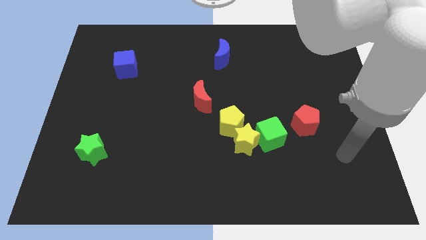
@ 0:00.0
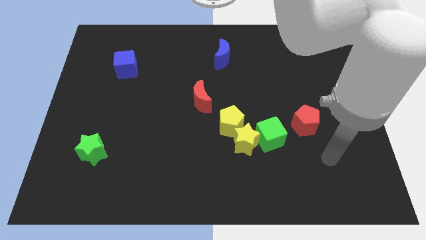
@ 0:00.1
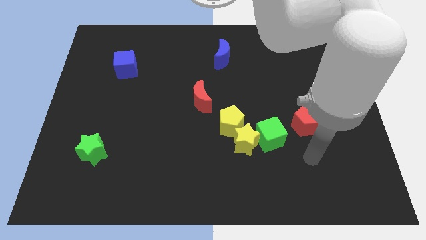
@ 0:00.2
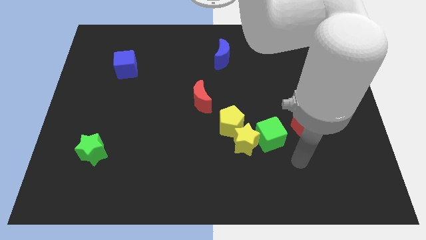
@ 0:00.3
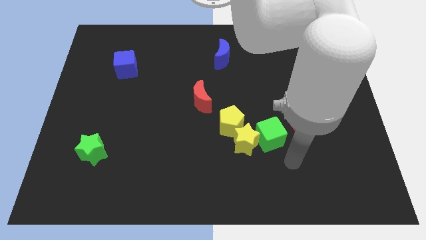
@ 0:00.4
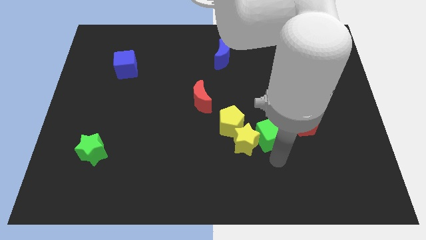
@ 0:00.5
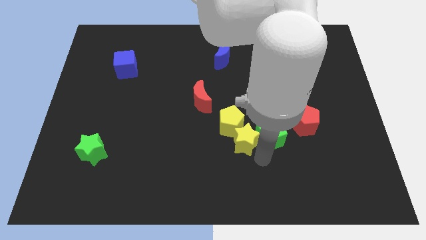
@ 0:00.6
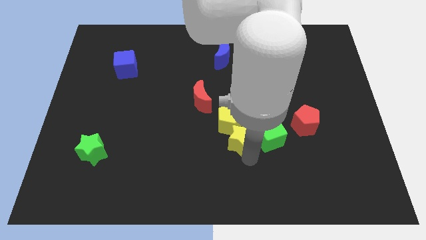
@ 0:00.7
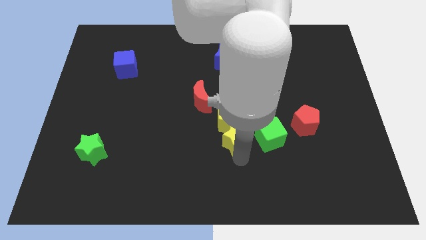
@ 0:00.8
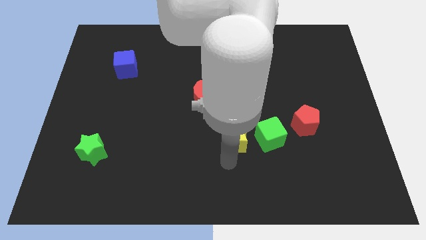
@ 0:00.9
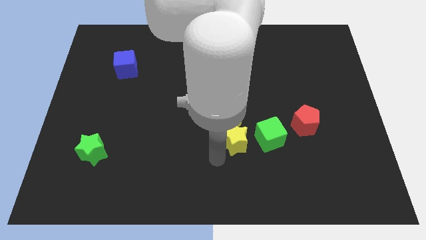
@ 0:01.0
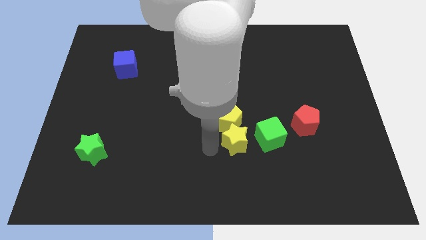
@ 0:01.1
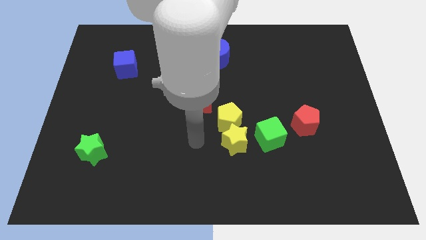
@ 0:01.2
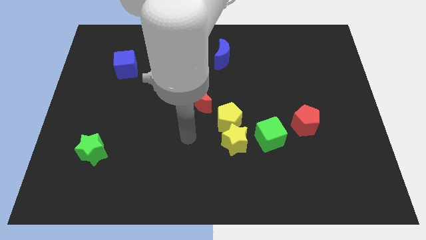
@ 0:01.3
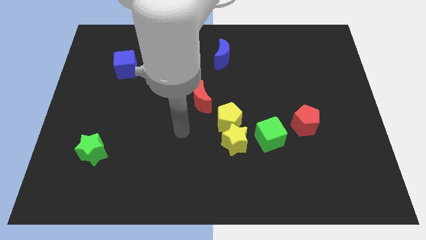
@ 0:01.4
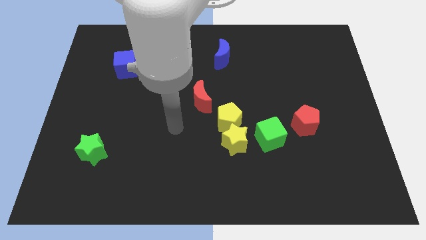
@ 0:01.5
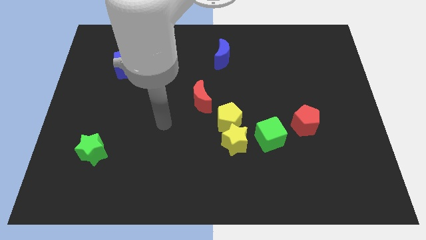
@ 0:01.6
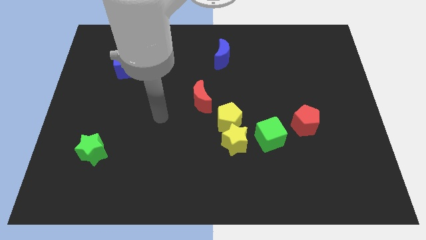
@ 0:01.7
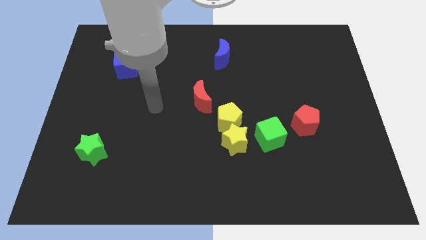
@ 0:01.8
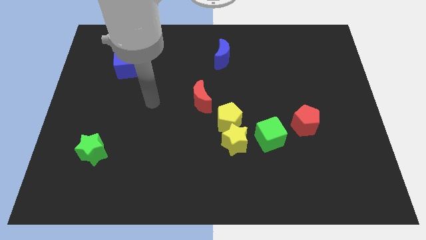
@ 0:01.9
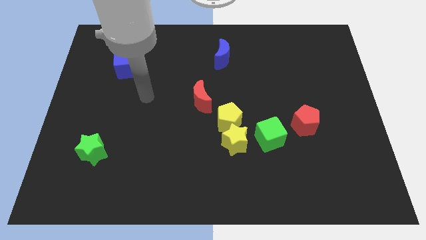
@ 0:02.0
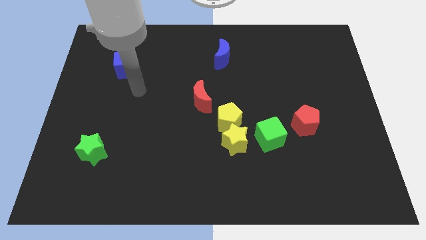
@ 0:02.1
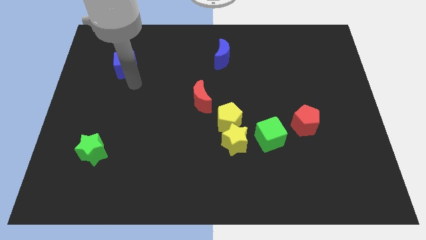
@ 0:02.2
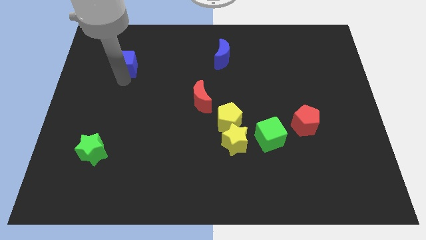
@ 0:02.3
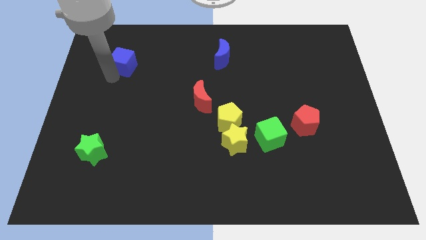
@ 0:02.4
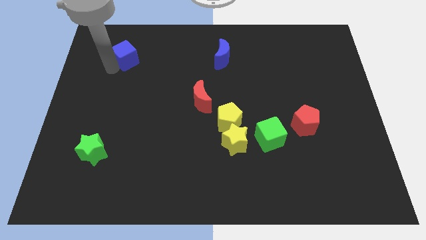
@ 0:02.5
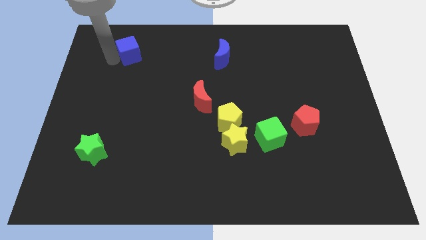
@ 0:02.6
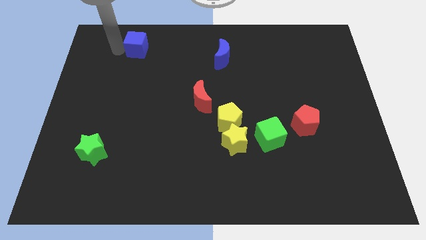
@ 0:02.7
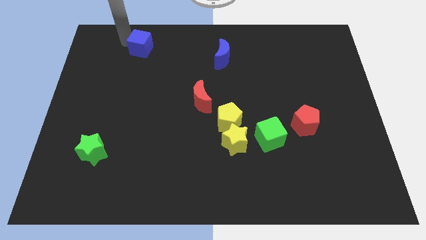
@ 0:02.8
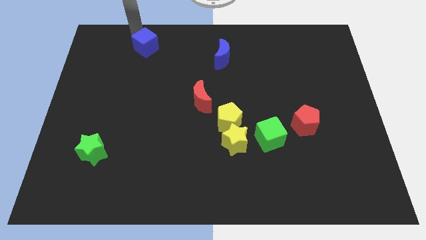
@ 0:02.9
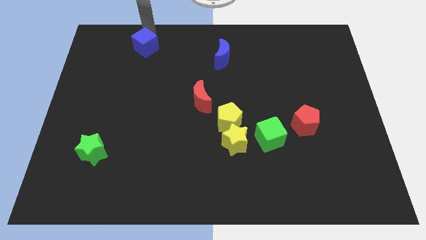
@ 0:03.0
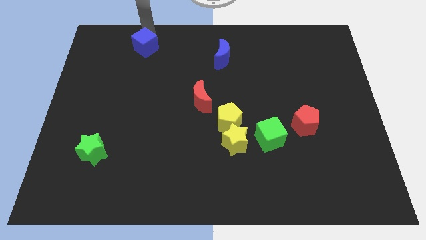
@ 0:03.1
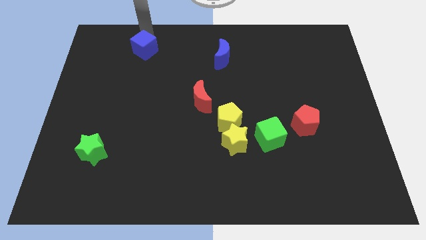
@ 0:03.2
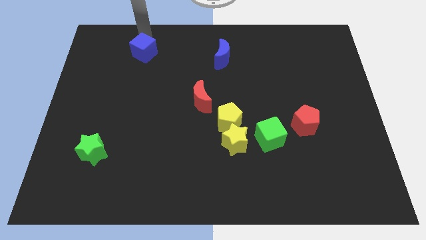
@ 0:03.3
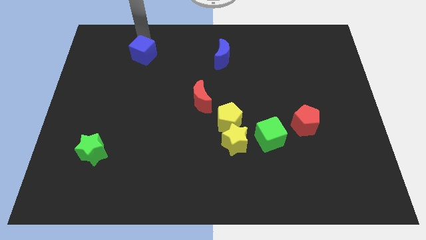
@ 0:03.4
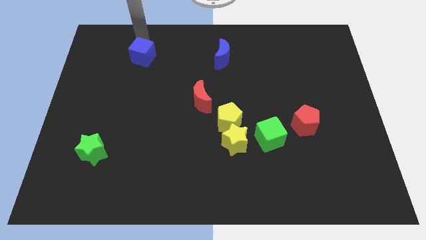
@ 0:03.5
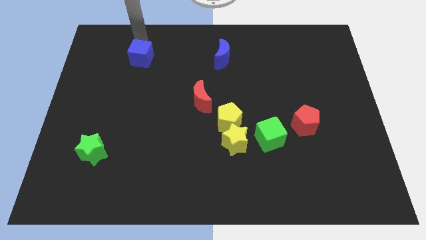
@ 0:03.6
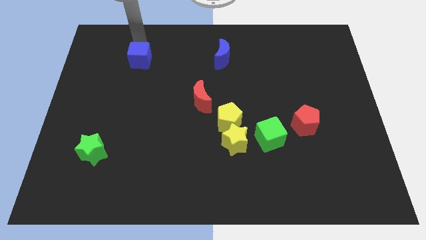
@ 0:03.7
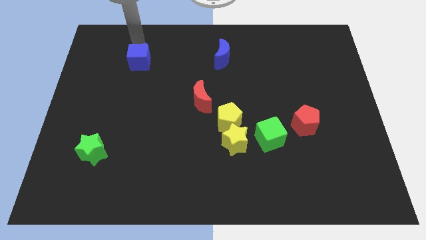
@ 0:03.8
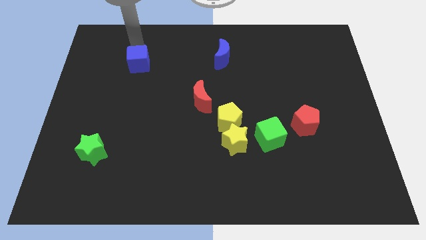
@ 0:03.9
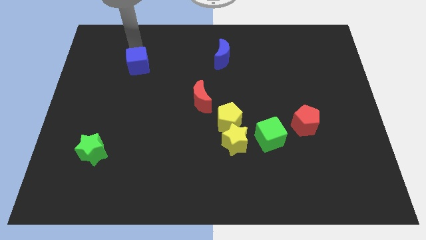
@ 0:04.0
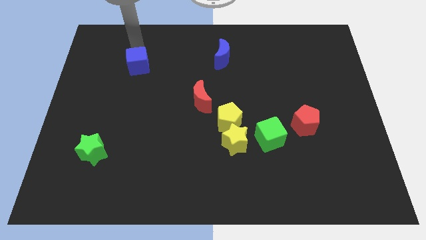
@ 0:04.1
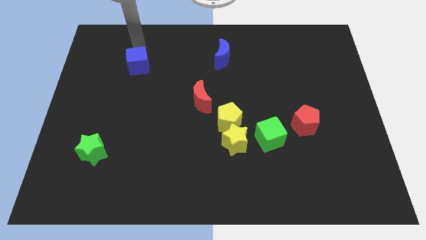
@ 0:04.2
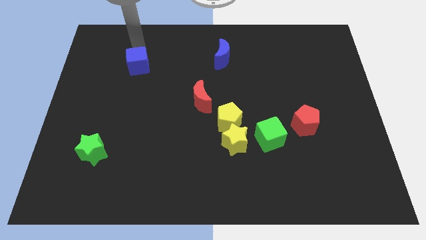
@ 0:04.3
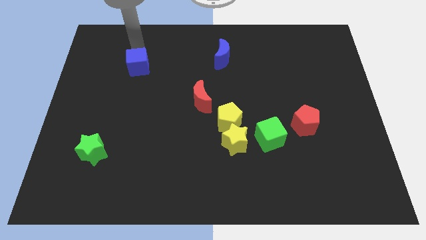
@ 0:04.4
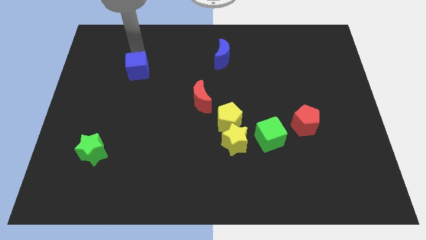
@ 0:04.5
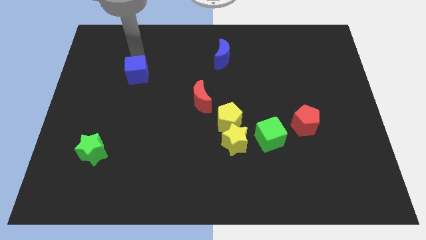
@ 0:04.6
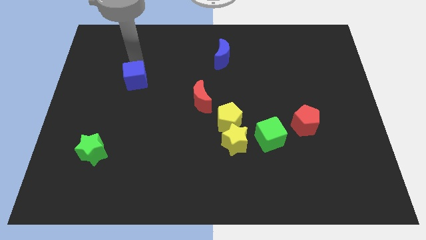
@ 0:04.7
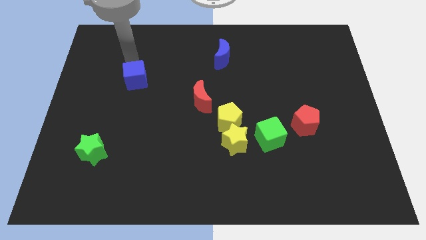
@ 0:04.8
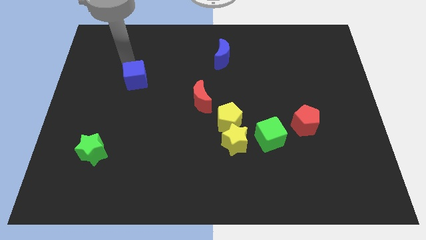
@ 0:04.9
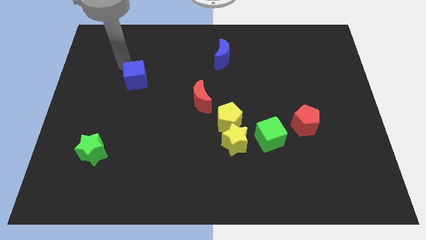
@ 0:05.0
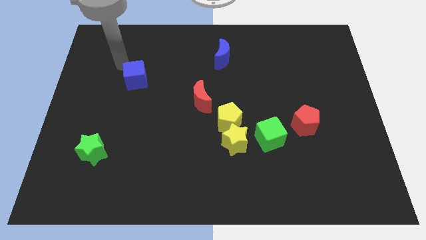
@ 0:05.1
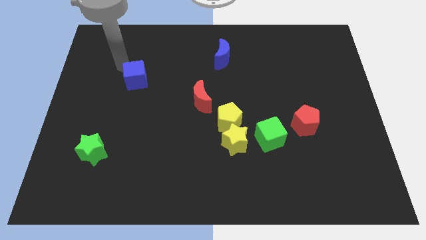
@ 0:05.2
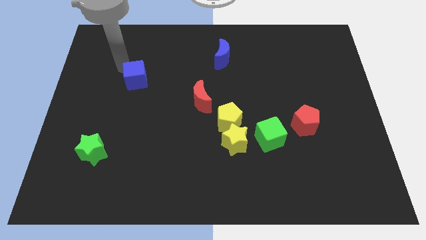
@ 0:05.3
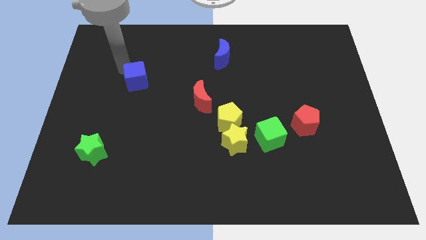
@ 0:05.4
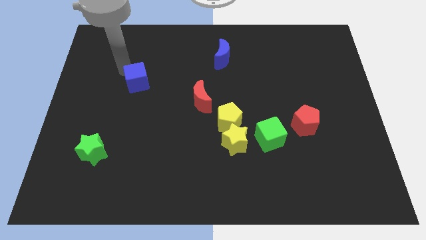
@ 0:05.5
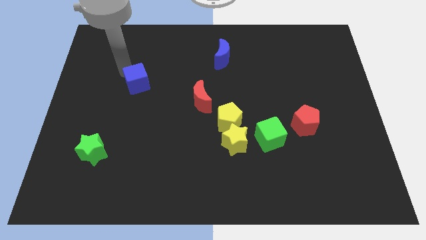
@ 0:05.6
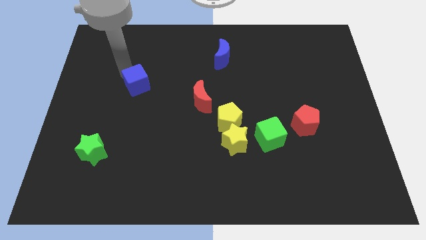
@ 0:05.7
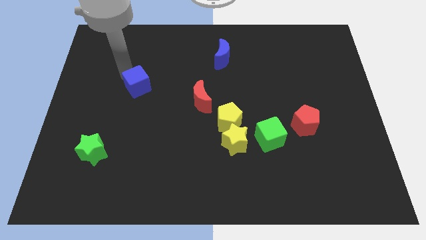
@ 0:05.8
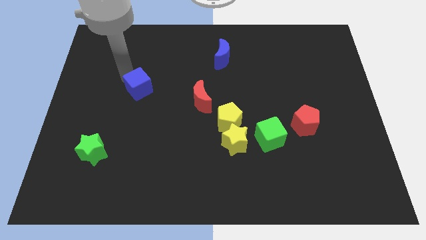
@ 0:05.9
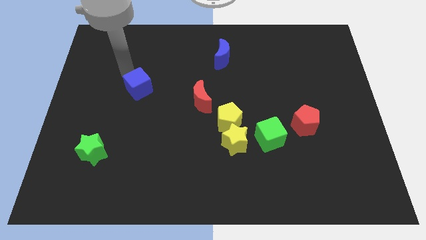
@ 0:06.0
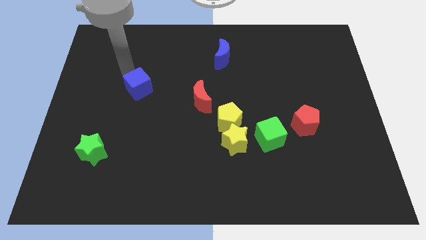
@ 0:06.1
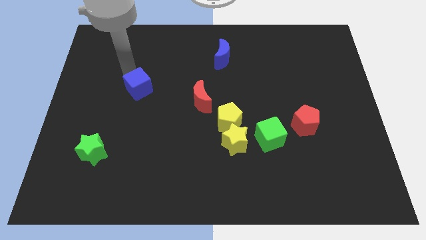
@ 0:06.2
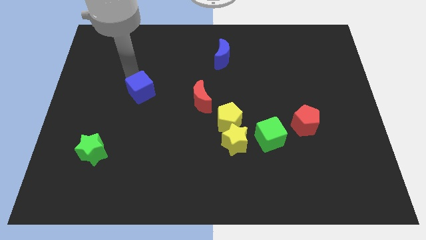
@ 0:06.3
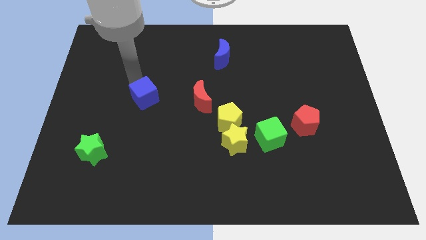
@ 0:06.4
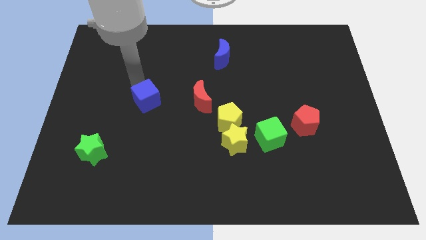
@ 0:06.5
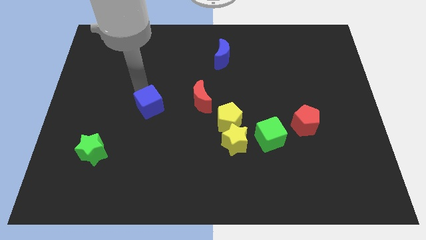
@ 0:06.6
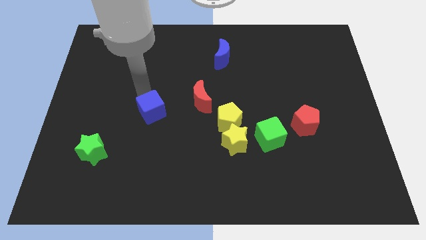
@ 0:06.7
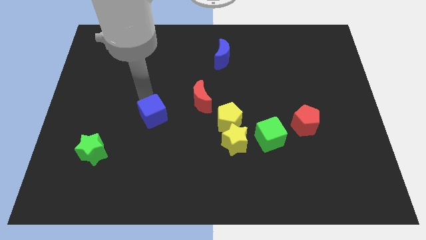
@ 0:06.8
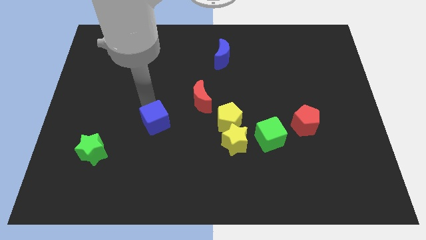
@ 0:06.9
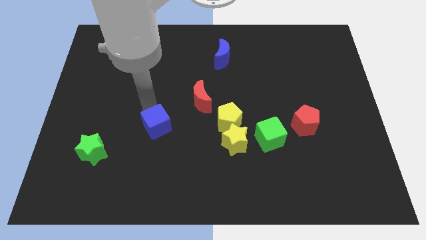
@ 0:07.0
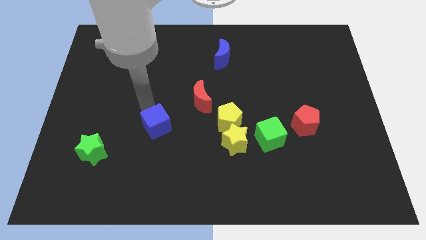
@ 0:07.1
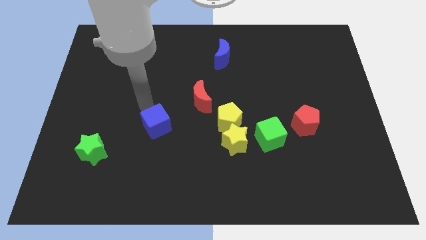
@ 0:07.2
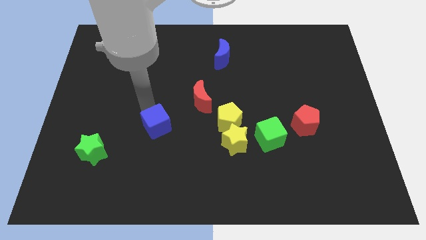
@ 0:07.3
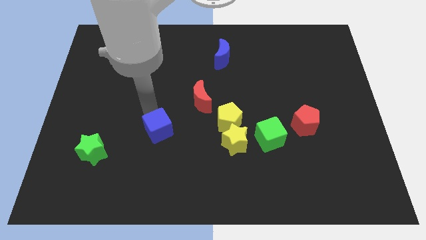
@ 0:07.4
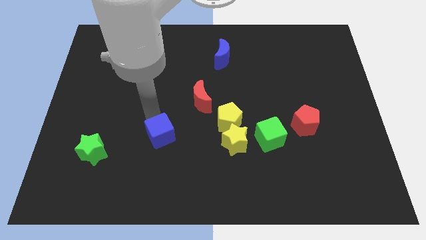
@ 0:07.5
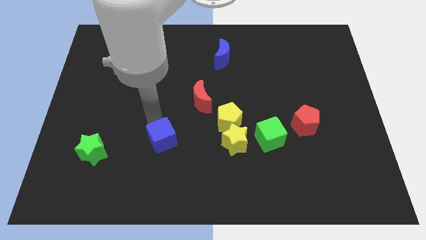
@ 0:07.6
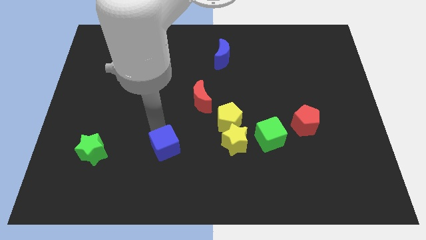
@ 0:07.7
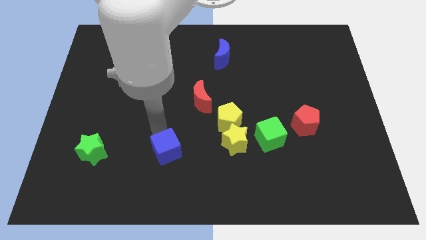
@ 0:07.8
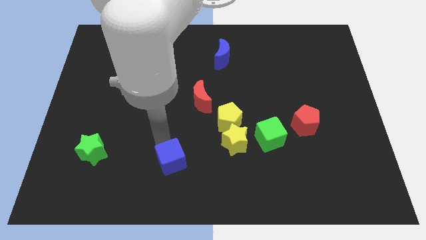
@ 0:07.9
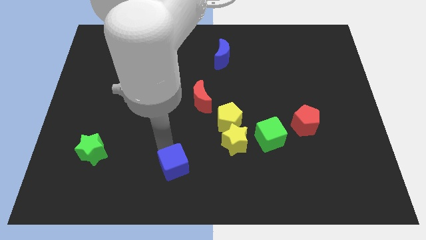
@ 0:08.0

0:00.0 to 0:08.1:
move the blue cube to the bottom side
